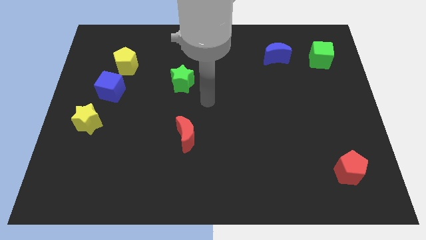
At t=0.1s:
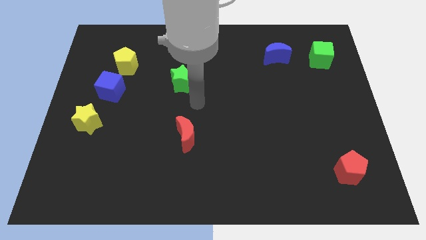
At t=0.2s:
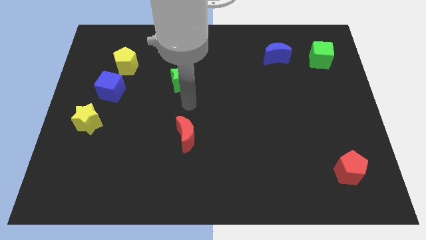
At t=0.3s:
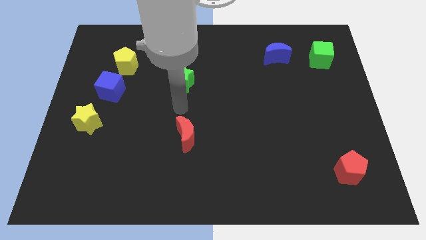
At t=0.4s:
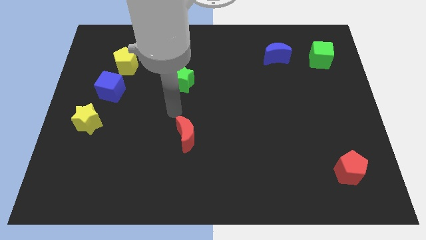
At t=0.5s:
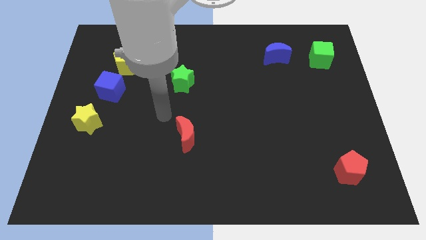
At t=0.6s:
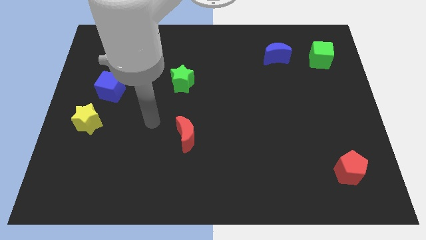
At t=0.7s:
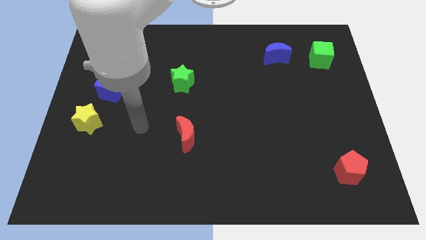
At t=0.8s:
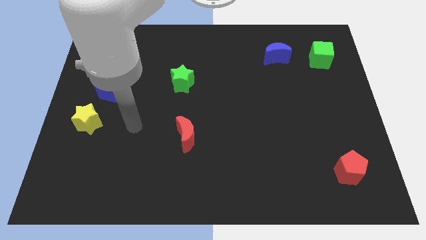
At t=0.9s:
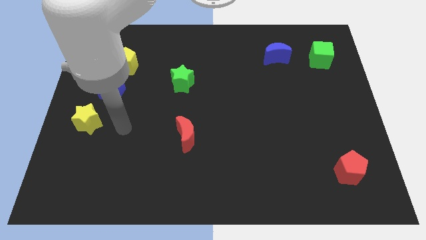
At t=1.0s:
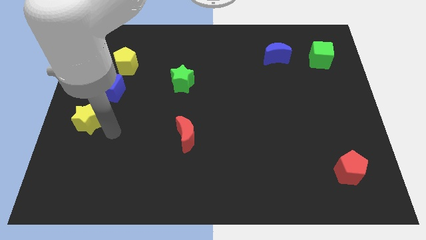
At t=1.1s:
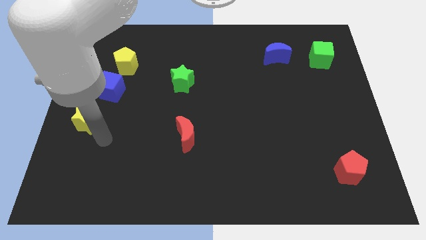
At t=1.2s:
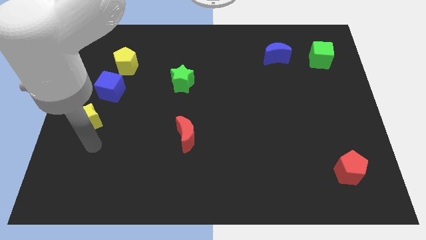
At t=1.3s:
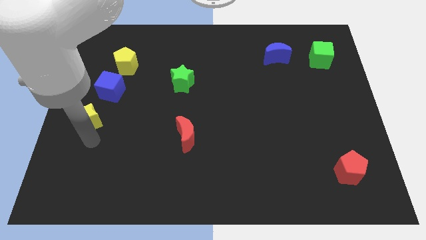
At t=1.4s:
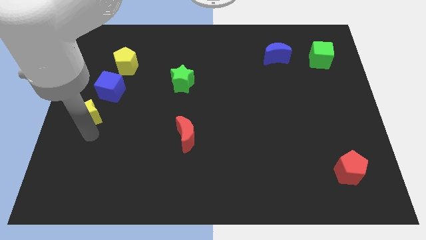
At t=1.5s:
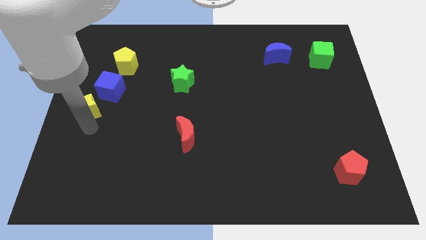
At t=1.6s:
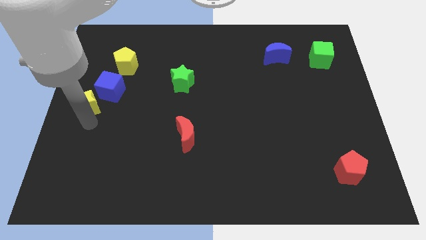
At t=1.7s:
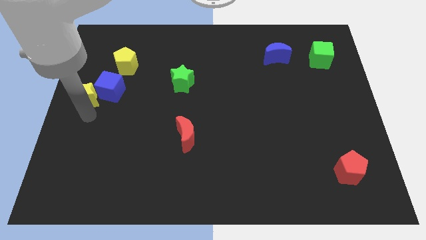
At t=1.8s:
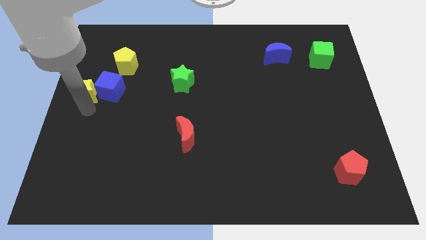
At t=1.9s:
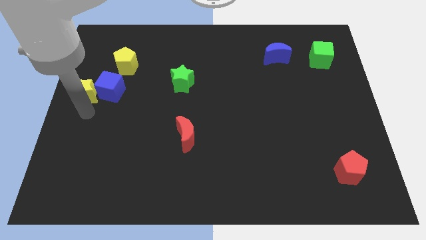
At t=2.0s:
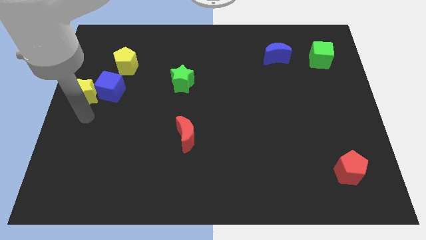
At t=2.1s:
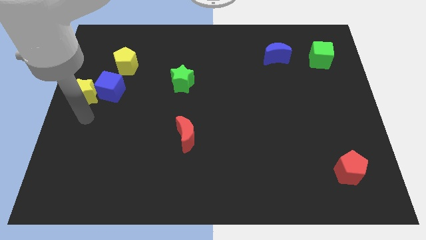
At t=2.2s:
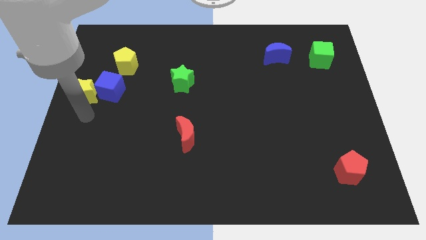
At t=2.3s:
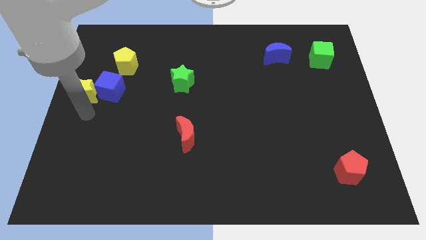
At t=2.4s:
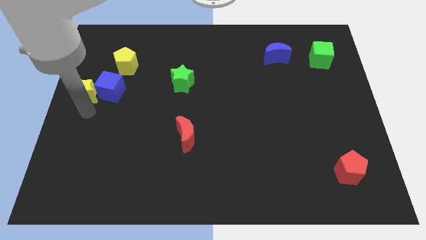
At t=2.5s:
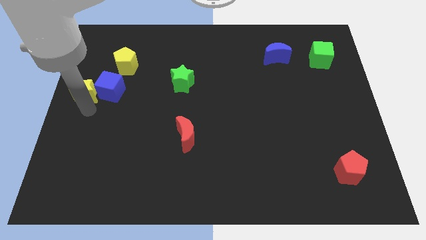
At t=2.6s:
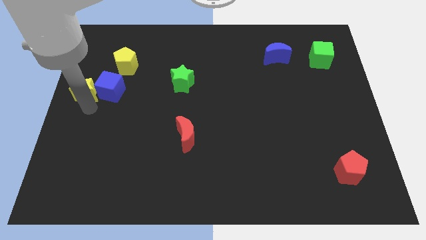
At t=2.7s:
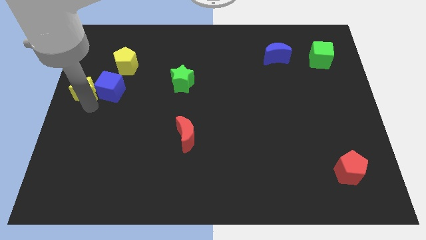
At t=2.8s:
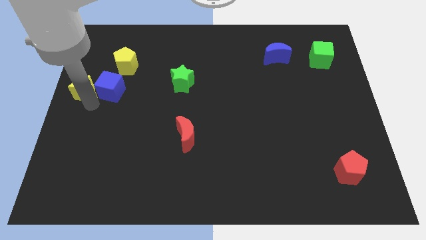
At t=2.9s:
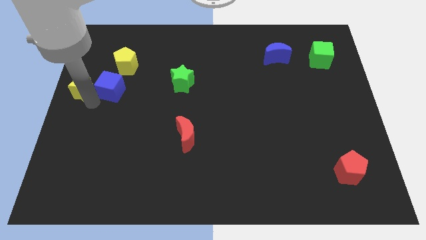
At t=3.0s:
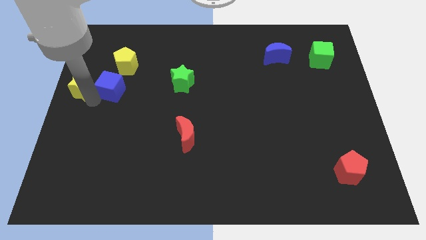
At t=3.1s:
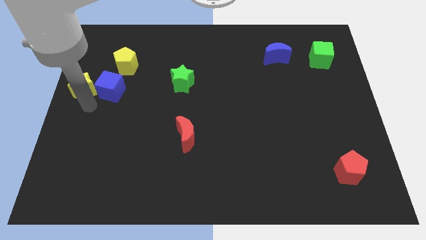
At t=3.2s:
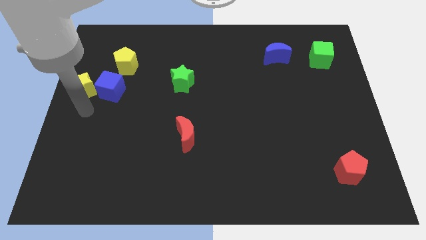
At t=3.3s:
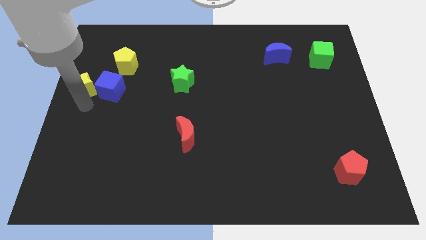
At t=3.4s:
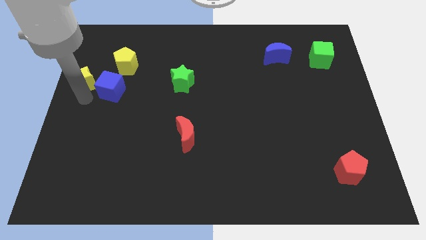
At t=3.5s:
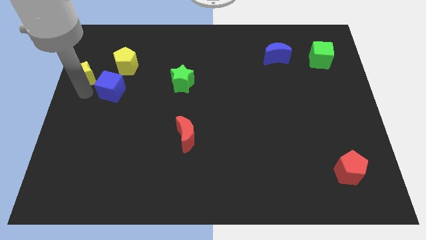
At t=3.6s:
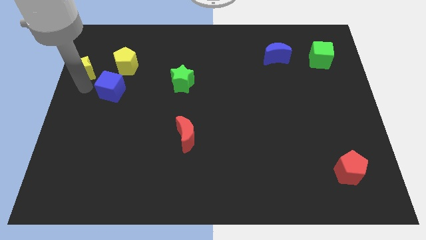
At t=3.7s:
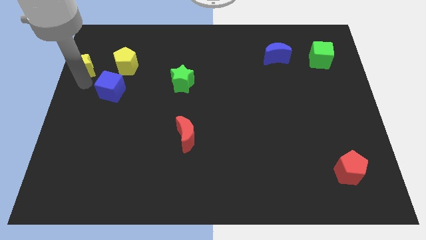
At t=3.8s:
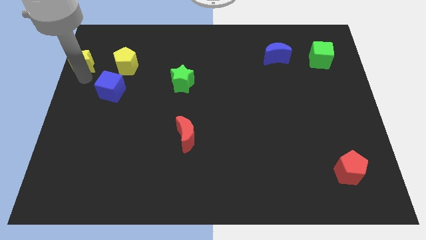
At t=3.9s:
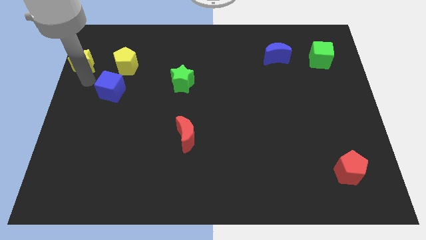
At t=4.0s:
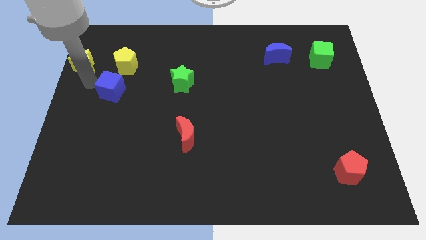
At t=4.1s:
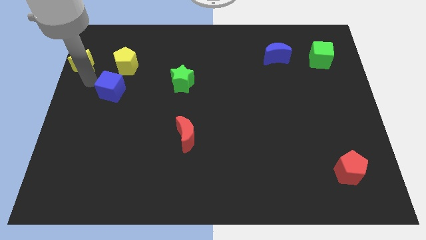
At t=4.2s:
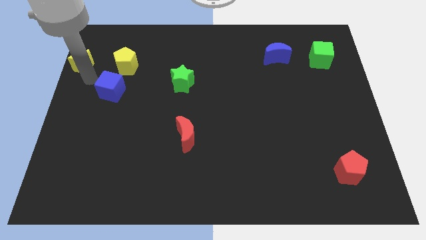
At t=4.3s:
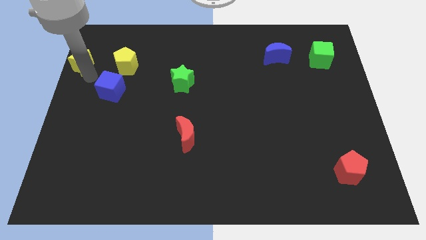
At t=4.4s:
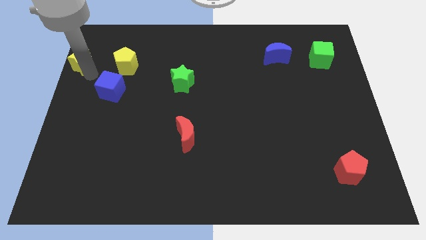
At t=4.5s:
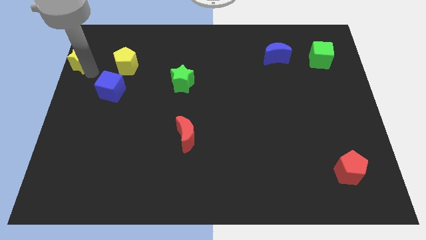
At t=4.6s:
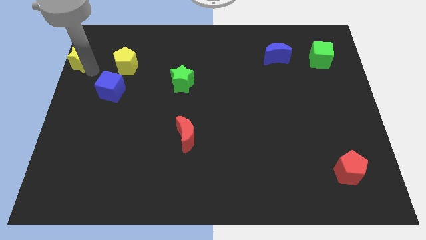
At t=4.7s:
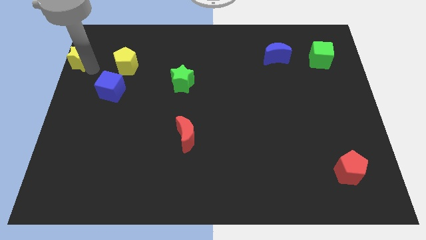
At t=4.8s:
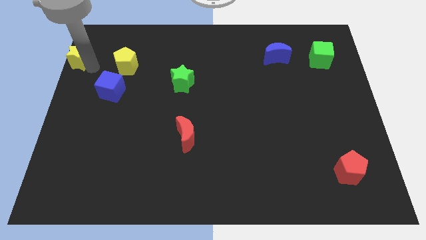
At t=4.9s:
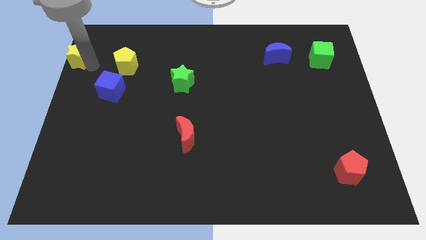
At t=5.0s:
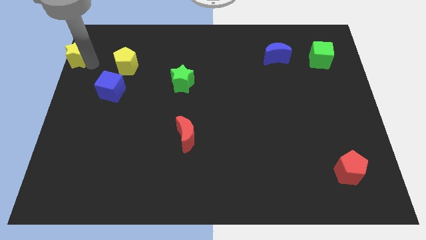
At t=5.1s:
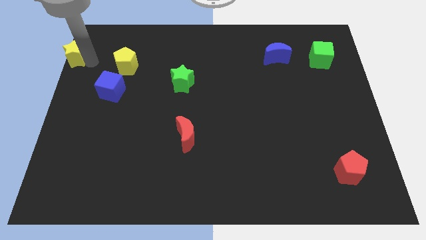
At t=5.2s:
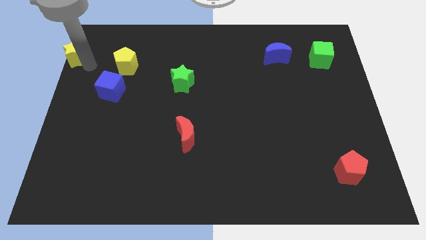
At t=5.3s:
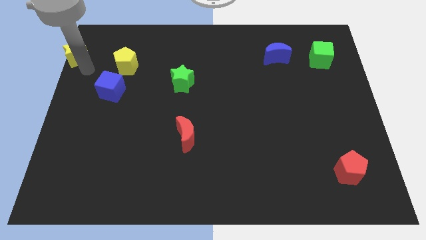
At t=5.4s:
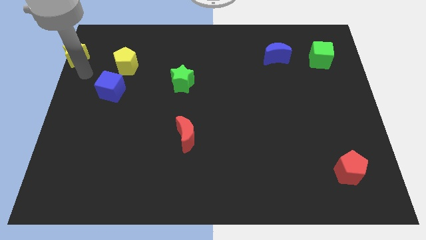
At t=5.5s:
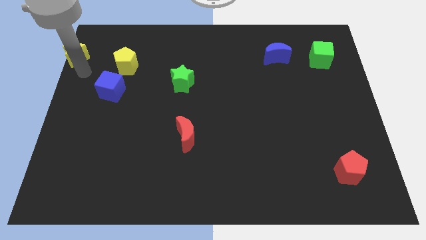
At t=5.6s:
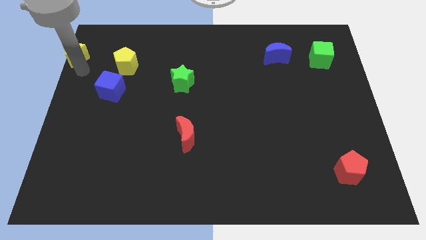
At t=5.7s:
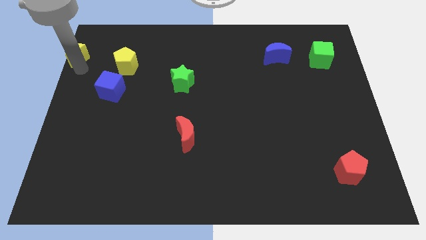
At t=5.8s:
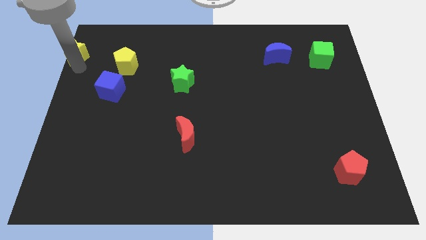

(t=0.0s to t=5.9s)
move the yellow star to the top left corner

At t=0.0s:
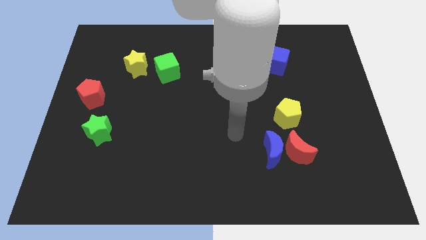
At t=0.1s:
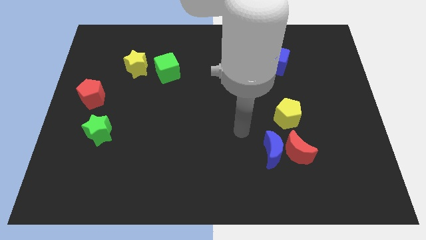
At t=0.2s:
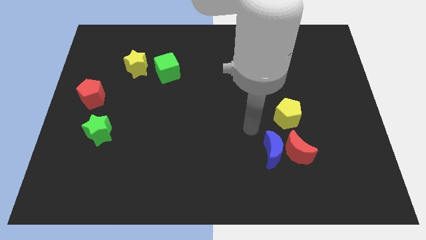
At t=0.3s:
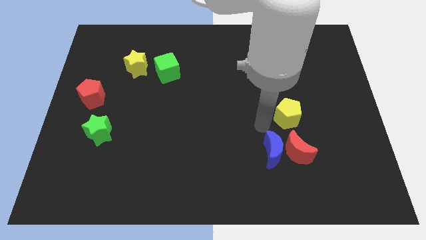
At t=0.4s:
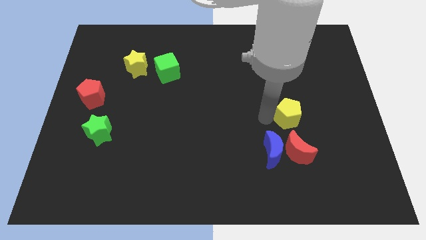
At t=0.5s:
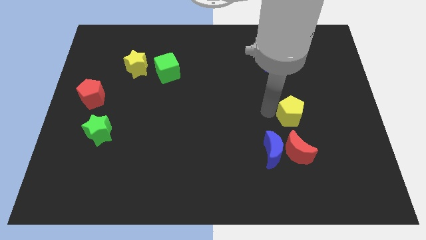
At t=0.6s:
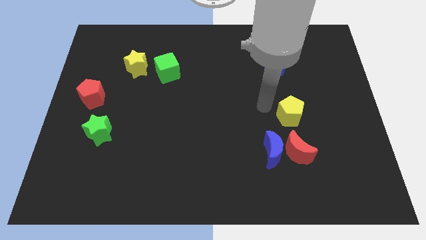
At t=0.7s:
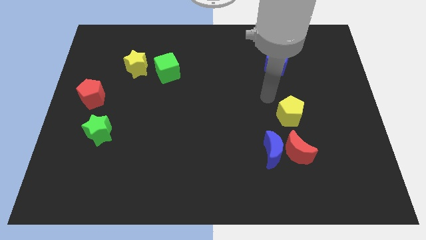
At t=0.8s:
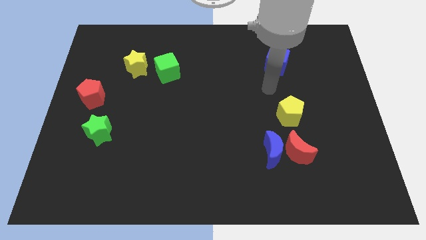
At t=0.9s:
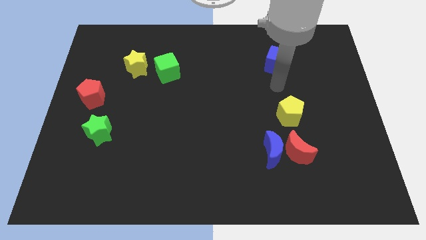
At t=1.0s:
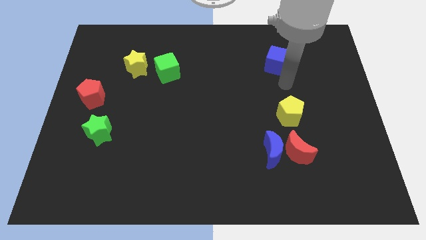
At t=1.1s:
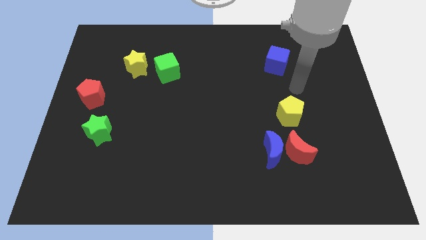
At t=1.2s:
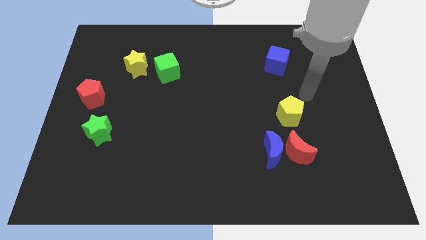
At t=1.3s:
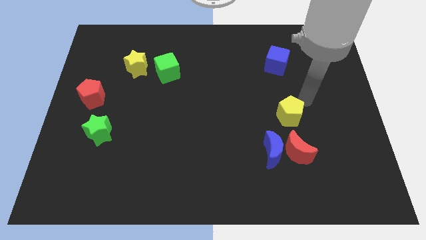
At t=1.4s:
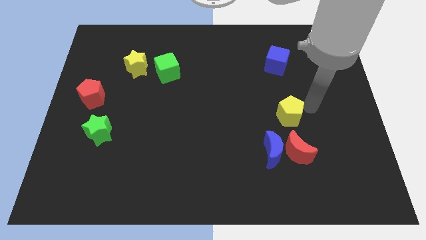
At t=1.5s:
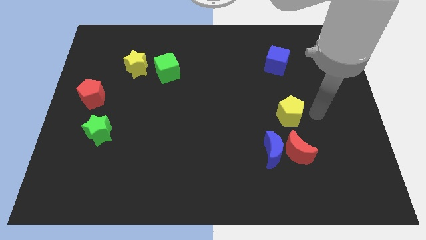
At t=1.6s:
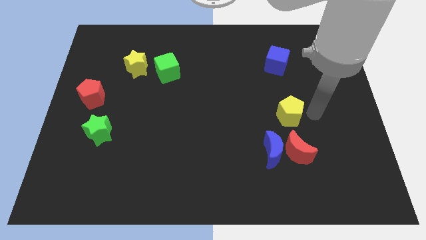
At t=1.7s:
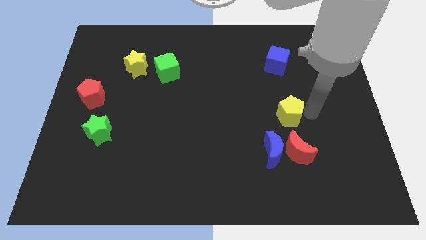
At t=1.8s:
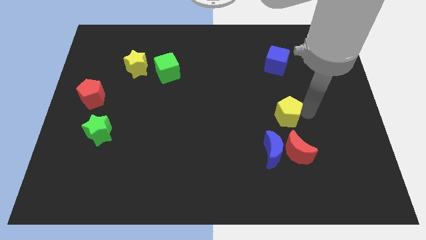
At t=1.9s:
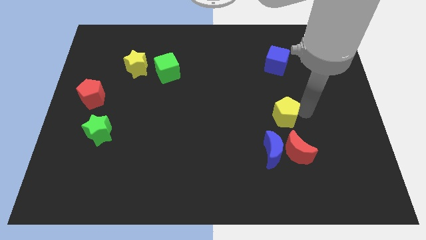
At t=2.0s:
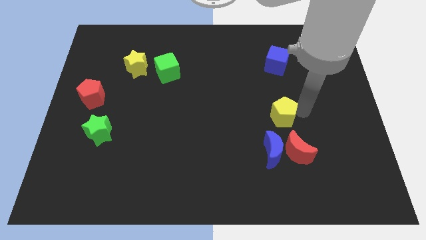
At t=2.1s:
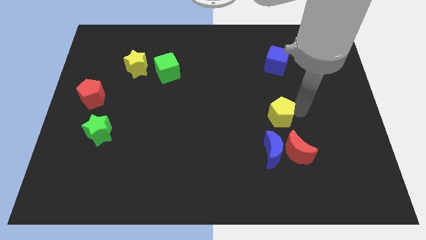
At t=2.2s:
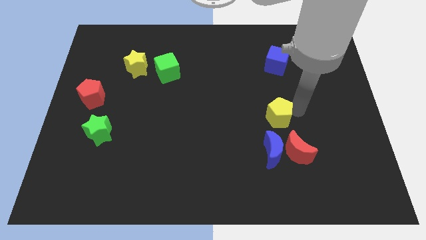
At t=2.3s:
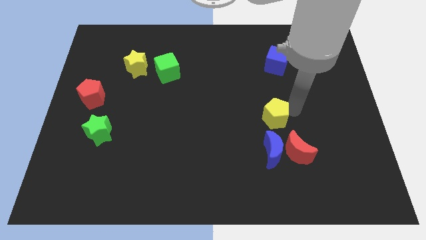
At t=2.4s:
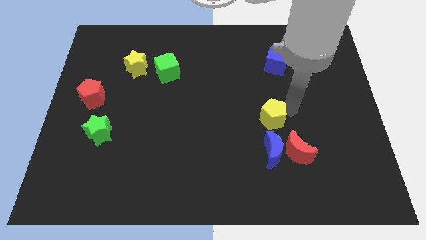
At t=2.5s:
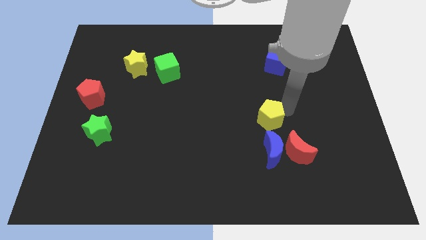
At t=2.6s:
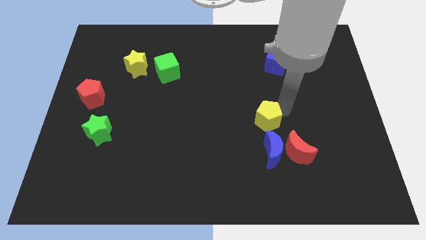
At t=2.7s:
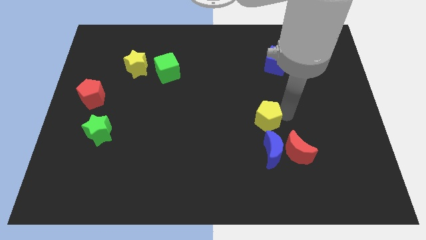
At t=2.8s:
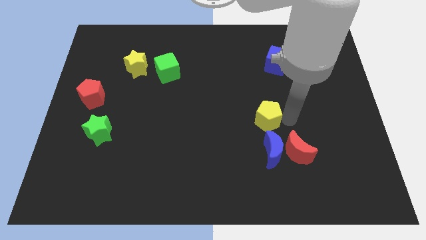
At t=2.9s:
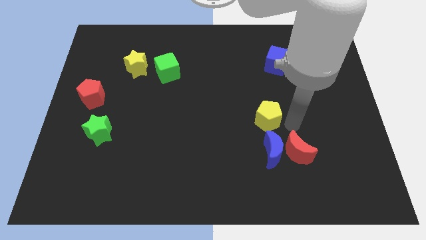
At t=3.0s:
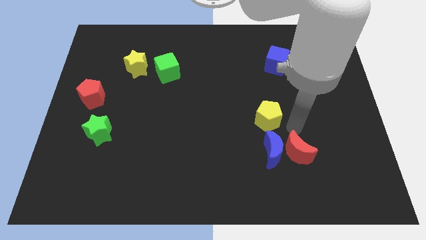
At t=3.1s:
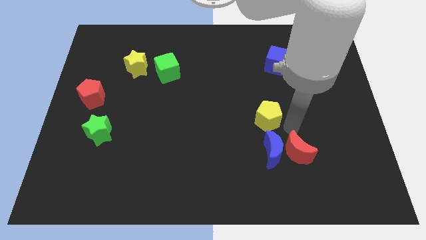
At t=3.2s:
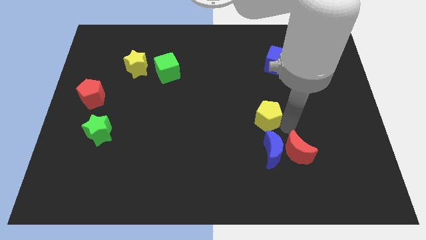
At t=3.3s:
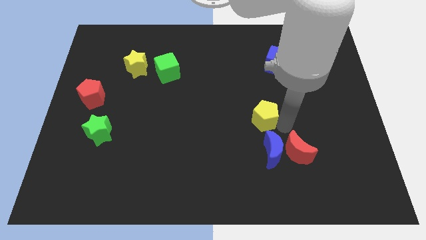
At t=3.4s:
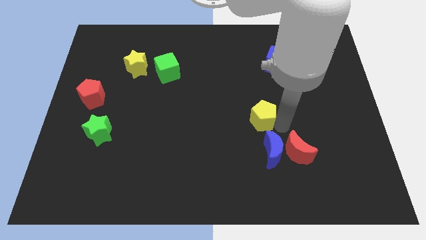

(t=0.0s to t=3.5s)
put the yellow pentagon to the middle of the board
